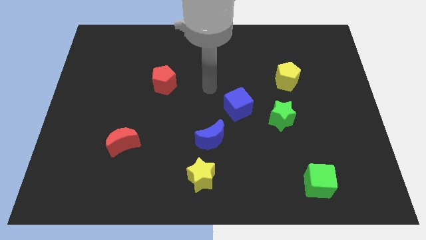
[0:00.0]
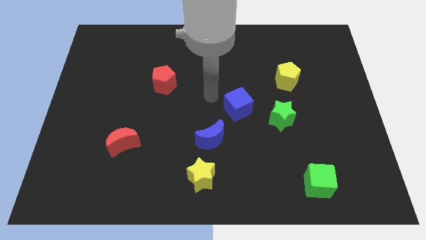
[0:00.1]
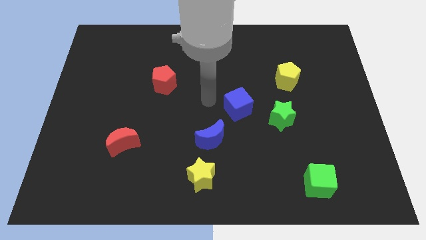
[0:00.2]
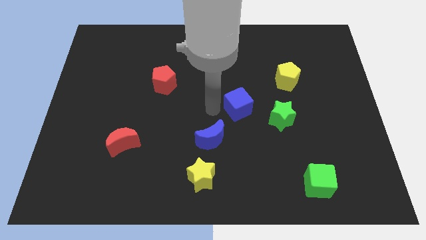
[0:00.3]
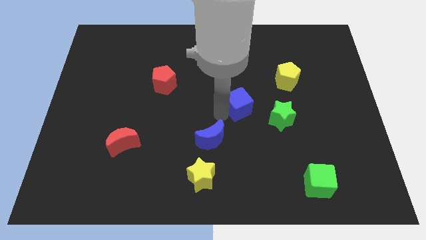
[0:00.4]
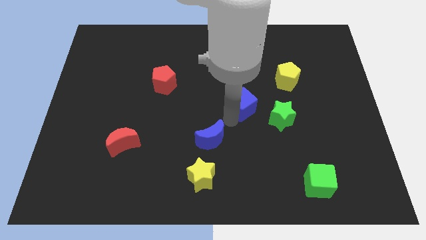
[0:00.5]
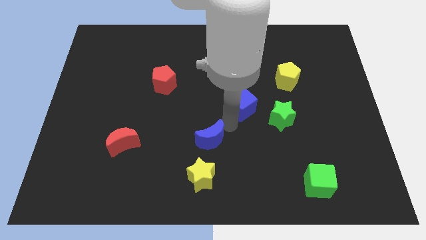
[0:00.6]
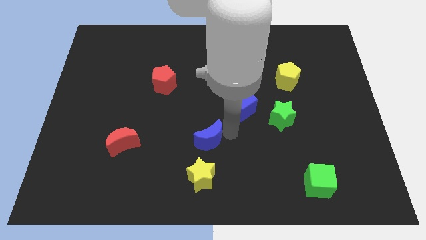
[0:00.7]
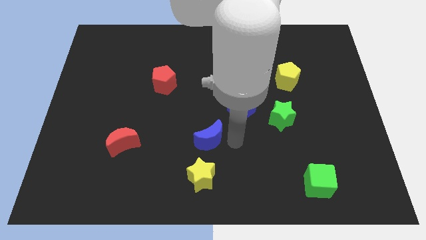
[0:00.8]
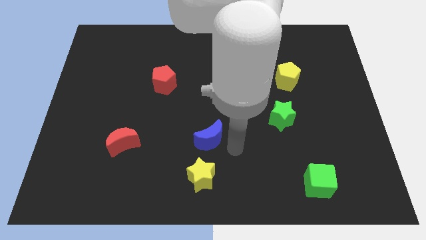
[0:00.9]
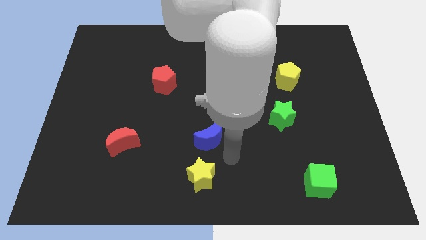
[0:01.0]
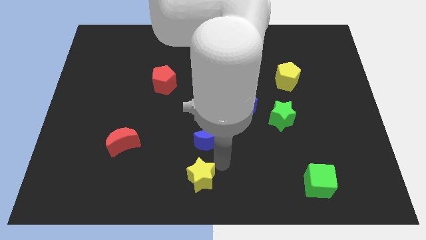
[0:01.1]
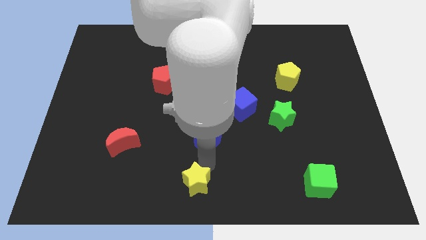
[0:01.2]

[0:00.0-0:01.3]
move the blue moon away from the yellow star

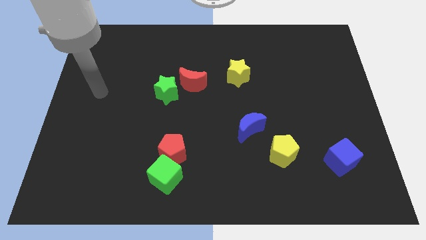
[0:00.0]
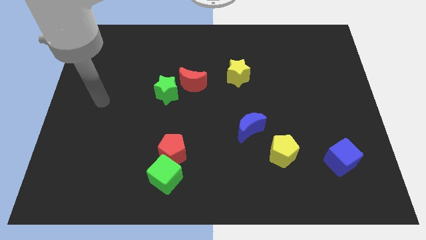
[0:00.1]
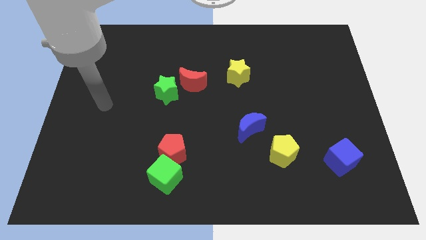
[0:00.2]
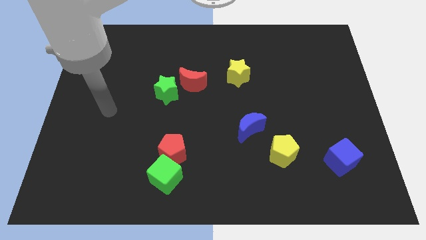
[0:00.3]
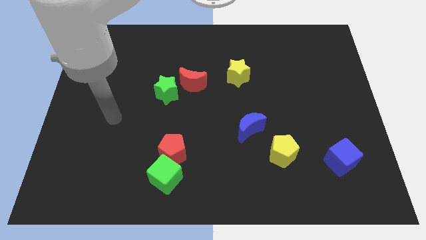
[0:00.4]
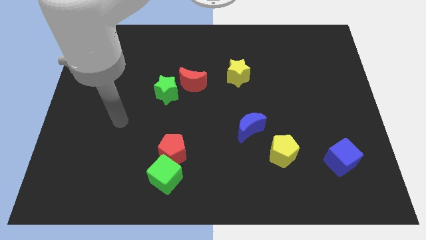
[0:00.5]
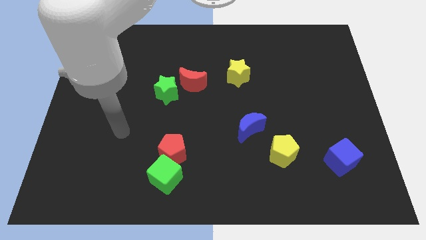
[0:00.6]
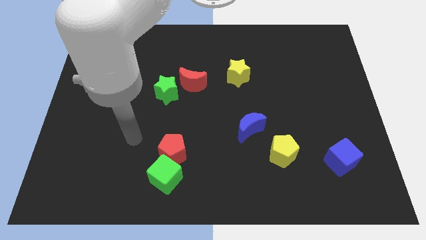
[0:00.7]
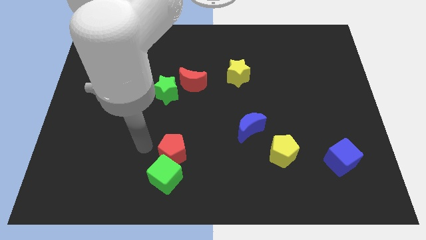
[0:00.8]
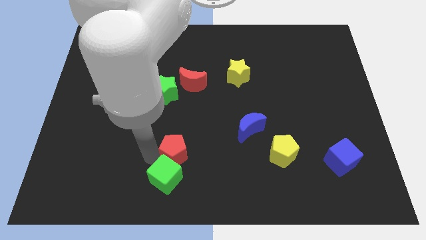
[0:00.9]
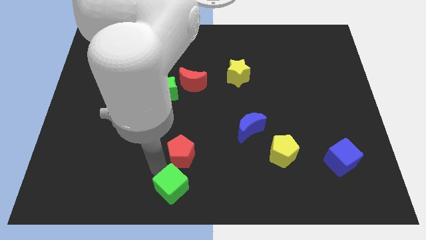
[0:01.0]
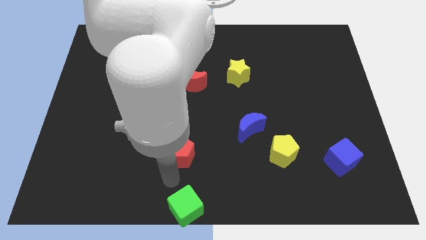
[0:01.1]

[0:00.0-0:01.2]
separate the red pentagon from the green cube

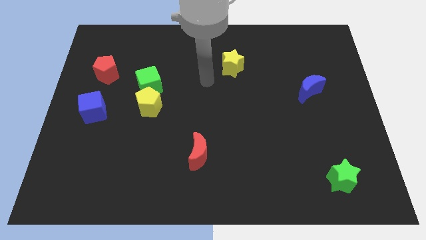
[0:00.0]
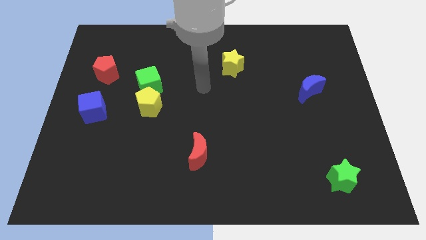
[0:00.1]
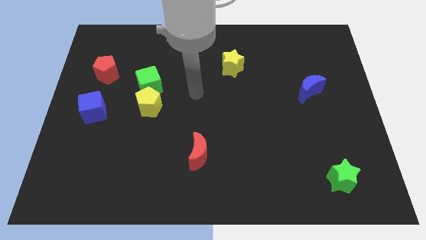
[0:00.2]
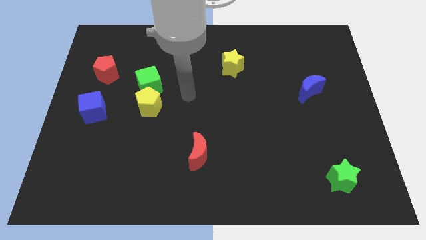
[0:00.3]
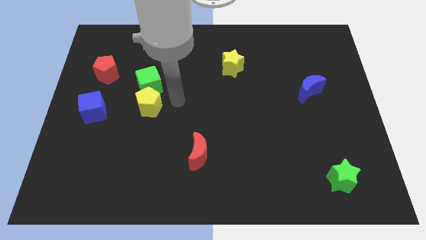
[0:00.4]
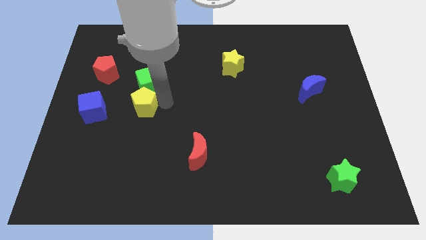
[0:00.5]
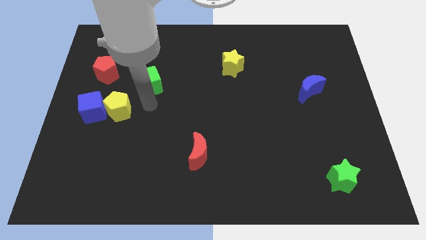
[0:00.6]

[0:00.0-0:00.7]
move the green cube away from the yellow pentagon

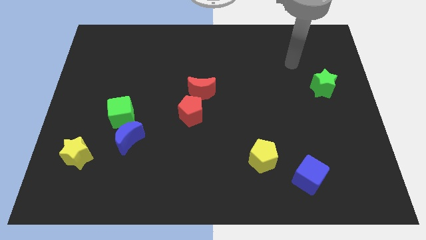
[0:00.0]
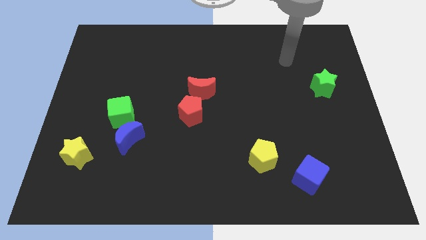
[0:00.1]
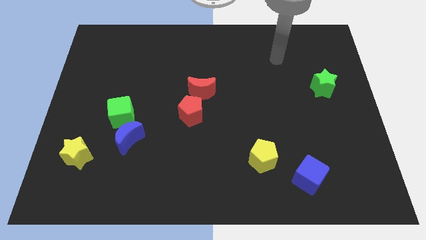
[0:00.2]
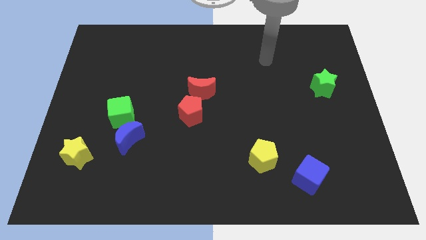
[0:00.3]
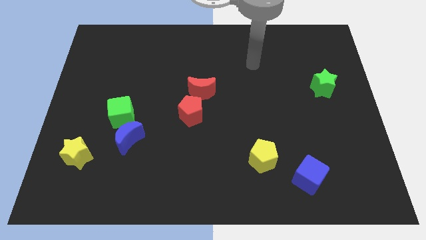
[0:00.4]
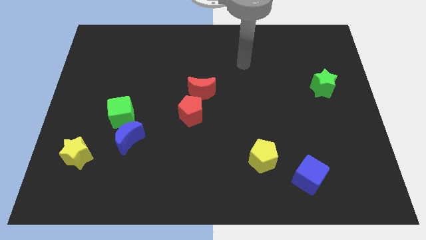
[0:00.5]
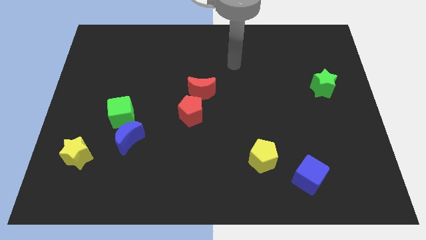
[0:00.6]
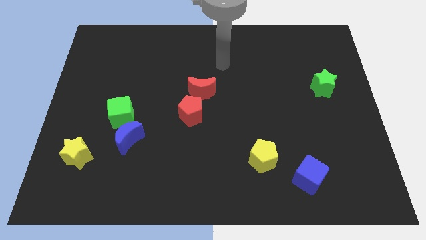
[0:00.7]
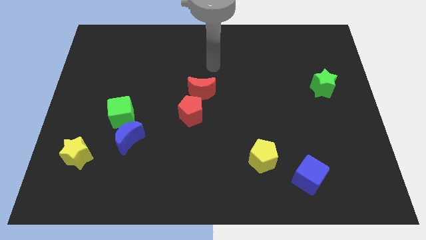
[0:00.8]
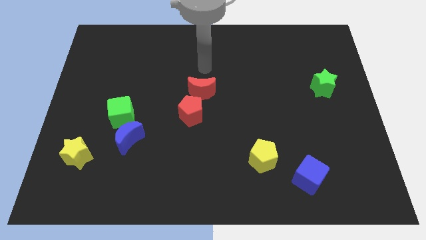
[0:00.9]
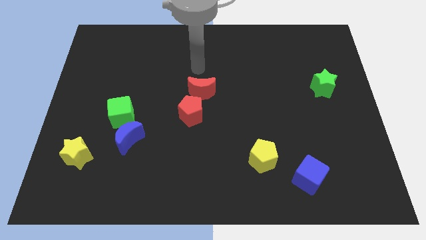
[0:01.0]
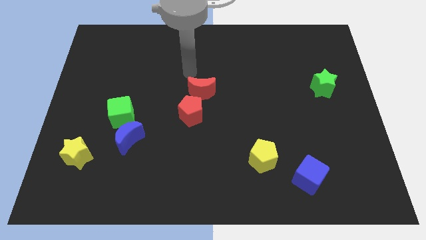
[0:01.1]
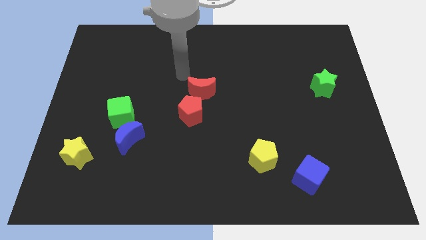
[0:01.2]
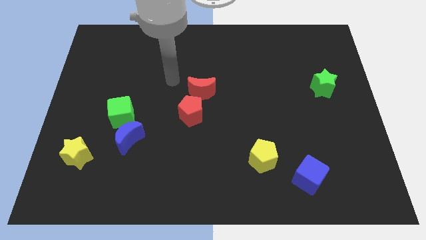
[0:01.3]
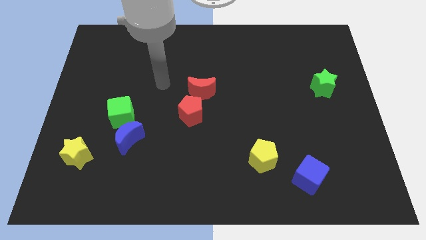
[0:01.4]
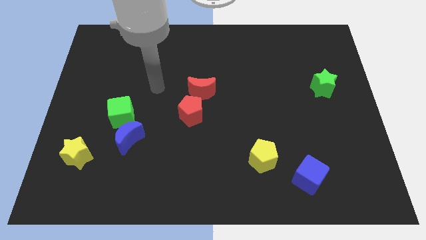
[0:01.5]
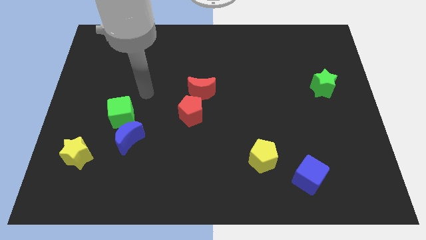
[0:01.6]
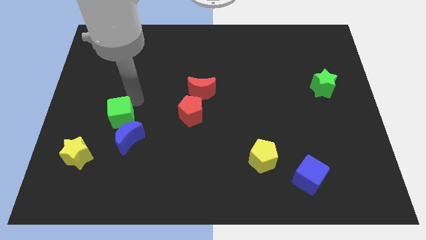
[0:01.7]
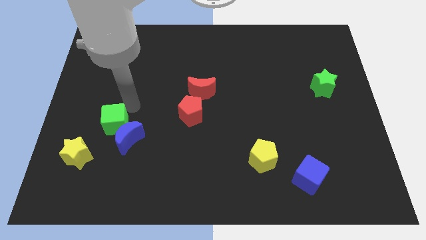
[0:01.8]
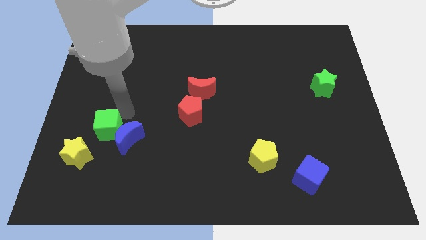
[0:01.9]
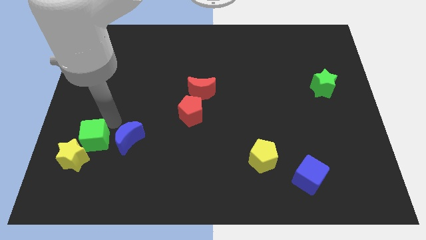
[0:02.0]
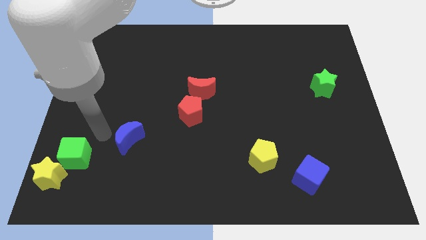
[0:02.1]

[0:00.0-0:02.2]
move the blue moon away from the green cube

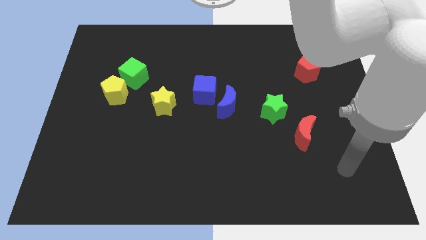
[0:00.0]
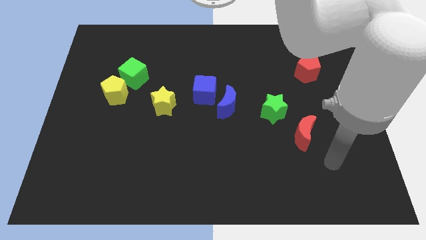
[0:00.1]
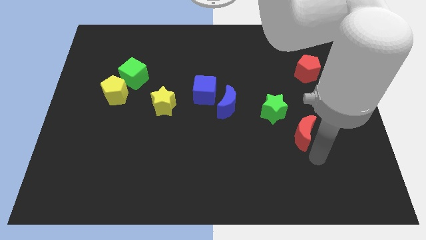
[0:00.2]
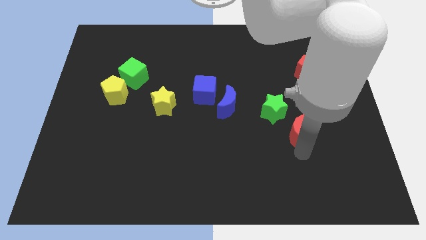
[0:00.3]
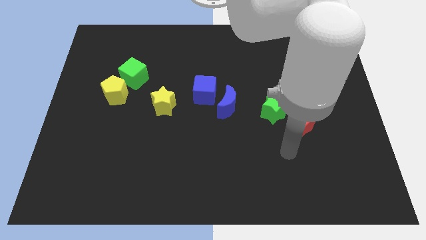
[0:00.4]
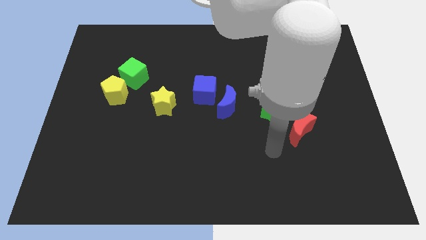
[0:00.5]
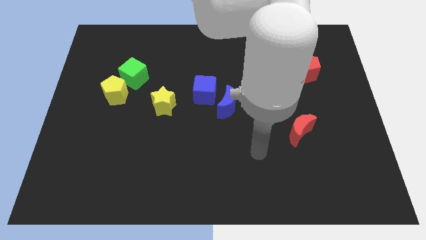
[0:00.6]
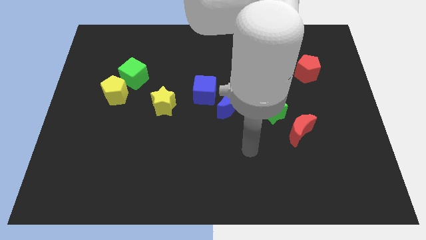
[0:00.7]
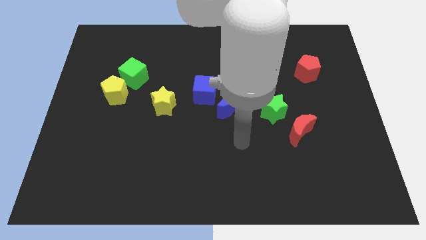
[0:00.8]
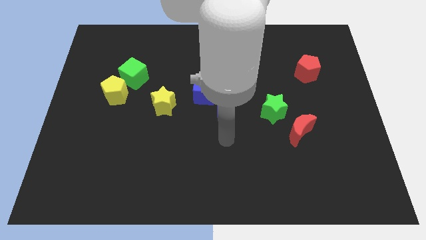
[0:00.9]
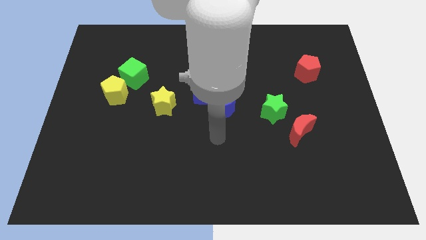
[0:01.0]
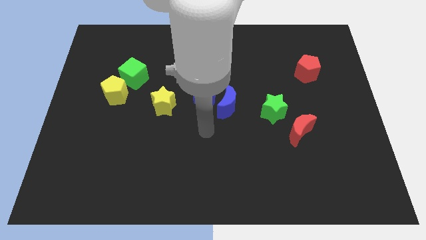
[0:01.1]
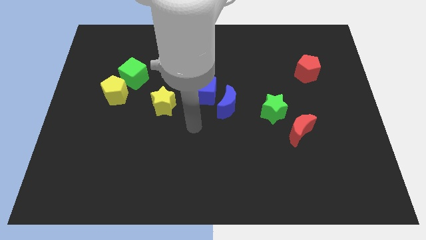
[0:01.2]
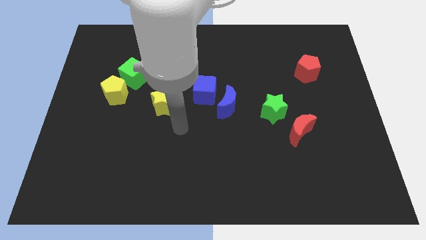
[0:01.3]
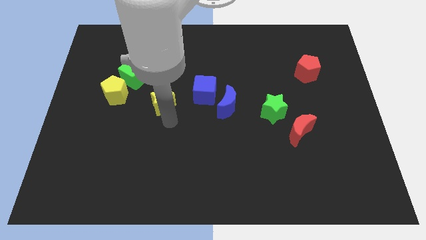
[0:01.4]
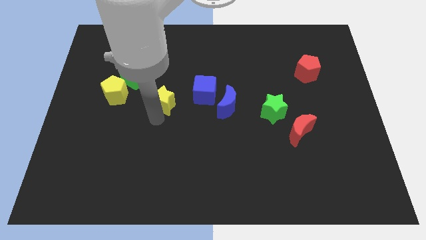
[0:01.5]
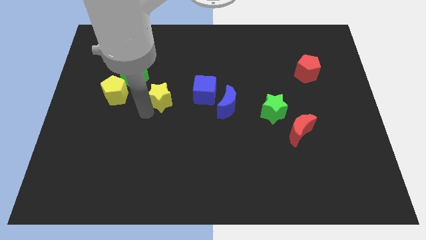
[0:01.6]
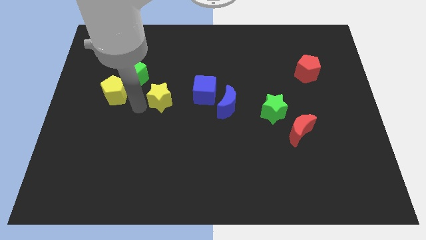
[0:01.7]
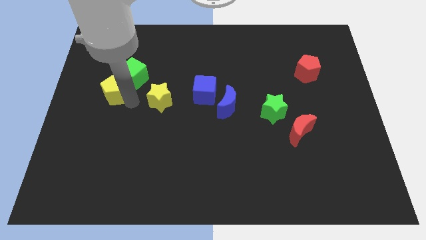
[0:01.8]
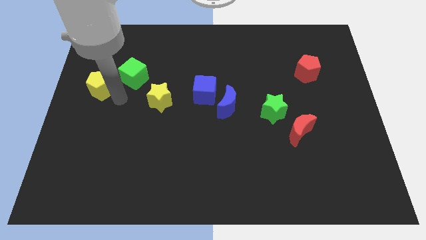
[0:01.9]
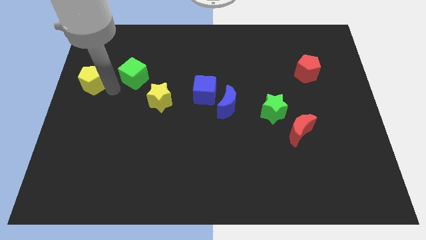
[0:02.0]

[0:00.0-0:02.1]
pull the green cube apart from the yellow pentagon

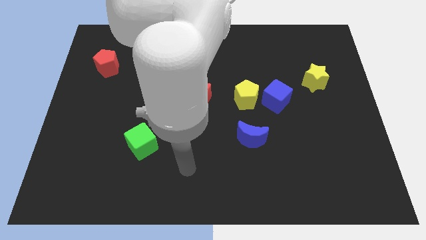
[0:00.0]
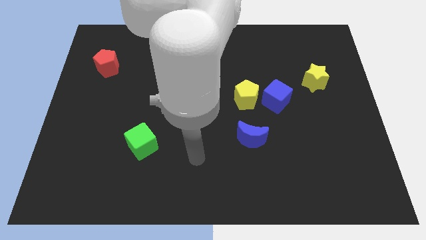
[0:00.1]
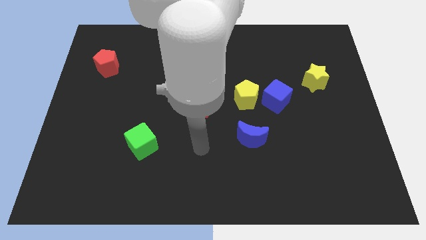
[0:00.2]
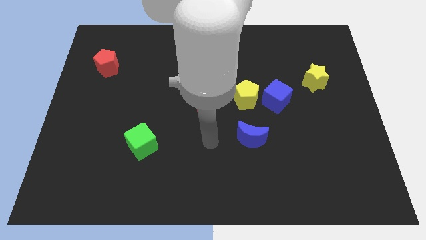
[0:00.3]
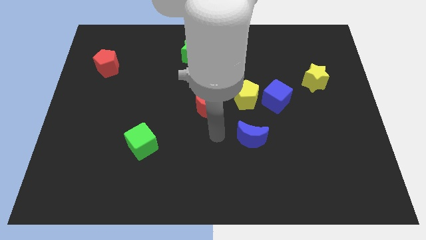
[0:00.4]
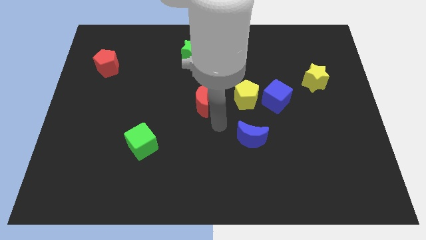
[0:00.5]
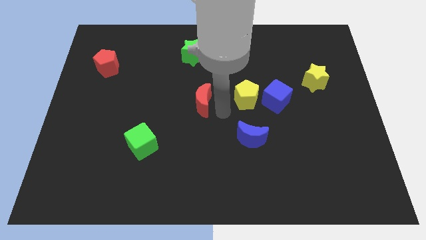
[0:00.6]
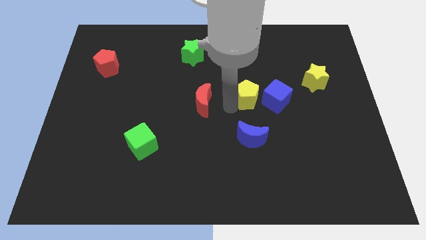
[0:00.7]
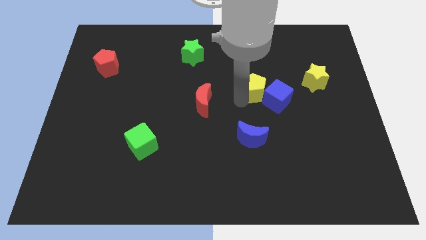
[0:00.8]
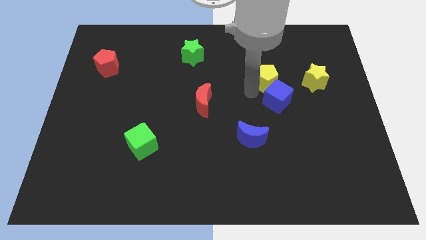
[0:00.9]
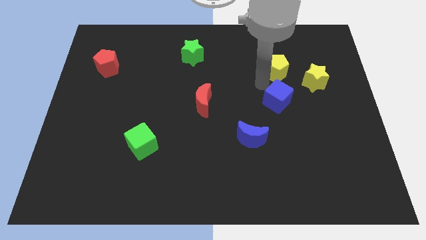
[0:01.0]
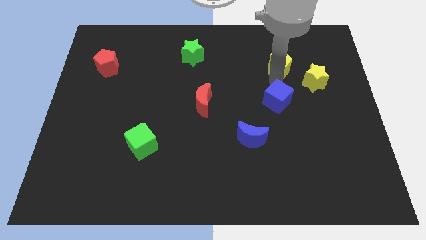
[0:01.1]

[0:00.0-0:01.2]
move the blue cube away from the yellow pentagon

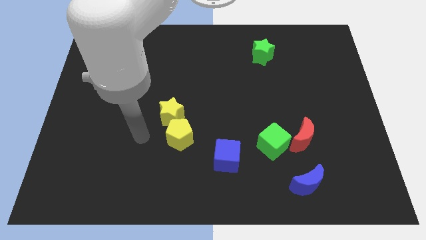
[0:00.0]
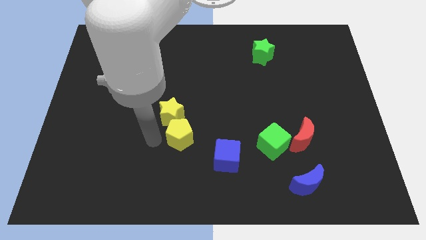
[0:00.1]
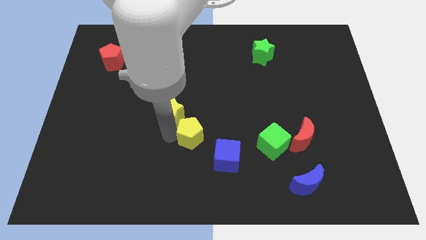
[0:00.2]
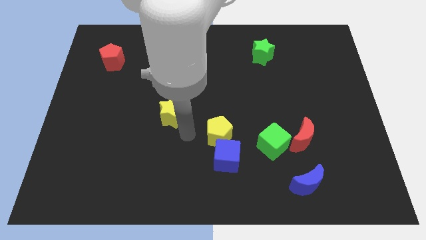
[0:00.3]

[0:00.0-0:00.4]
separate the yellow star from the yellow pentagon

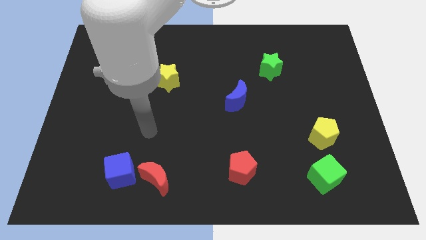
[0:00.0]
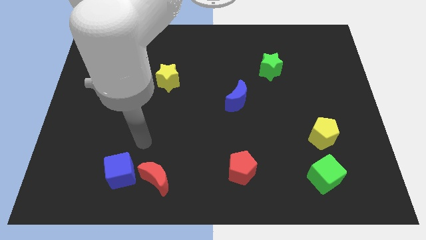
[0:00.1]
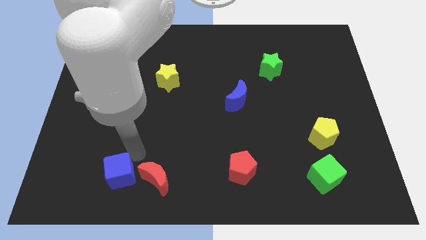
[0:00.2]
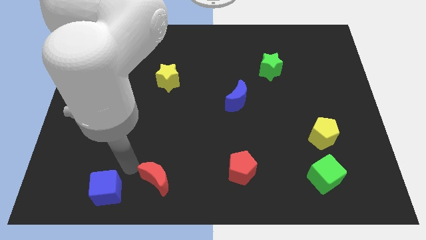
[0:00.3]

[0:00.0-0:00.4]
pull the red moon apart from the blue cube

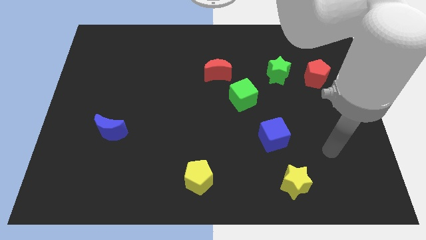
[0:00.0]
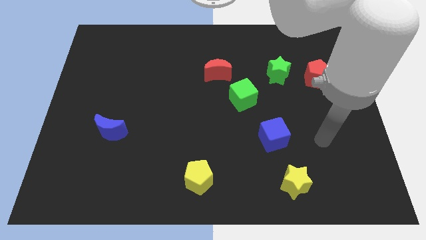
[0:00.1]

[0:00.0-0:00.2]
separate the red pentagon from the green star
